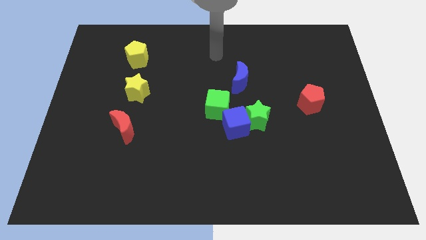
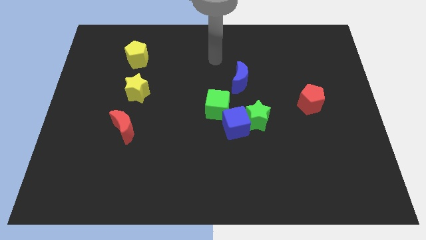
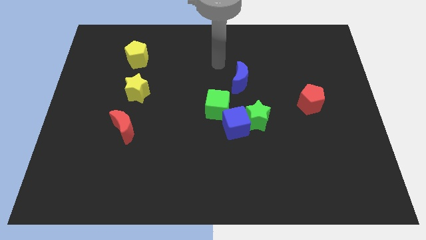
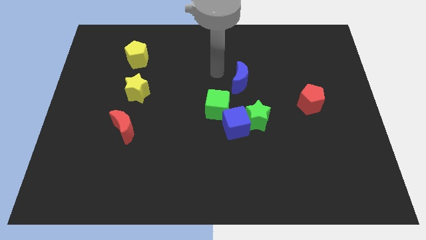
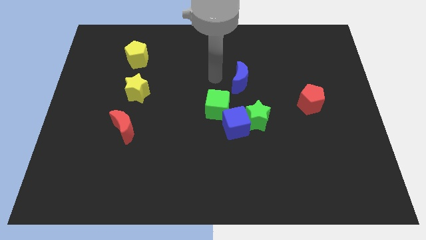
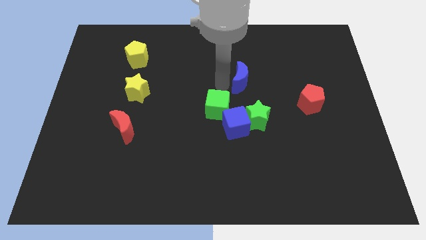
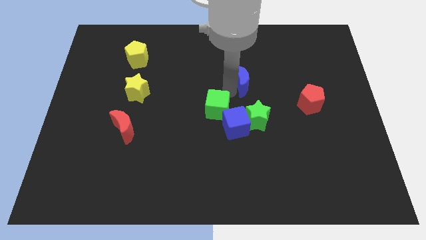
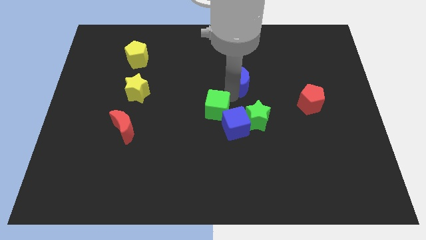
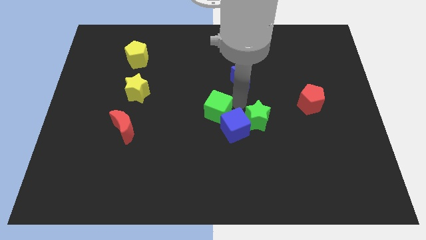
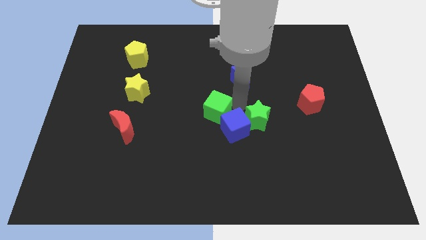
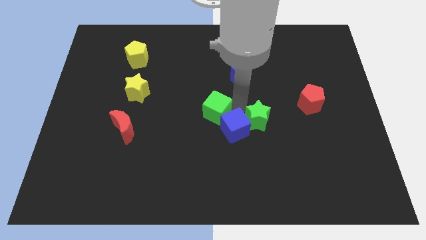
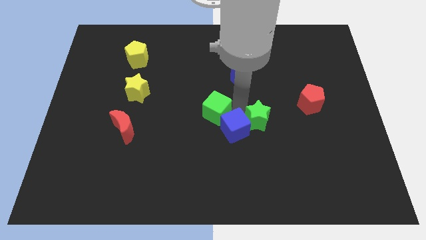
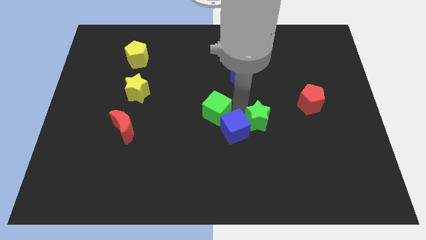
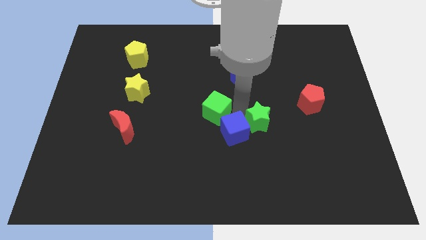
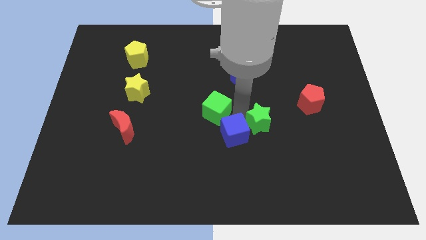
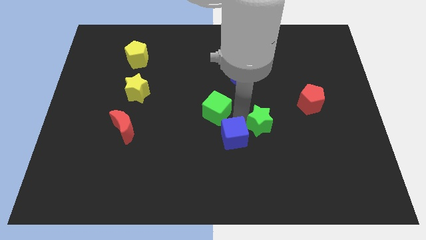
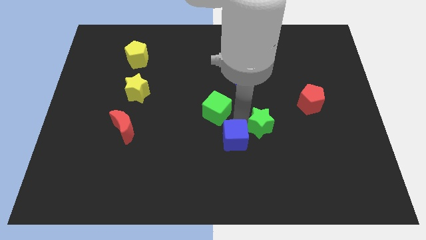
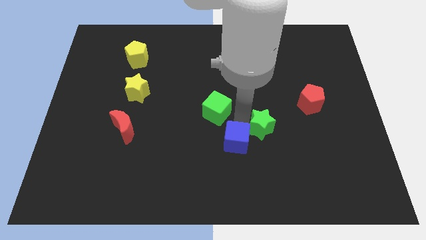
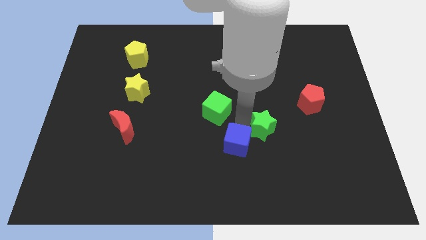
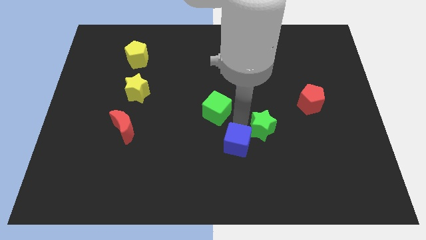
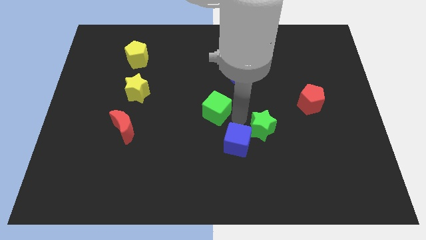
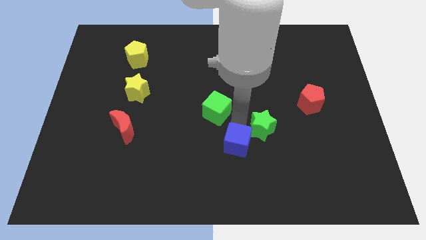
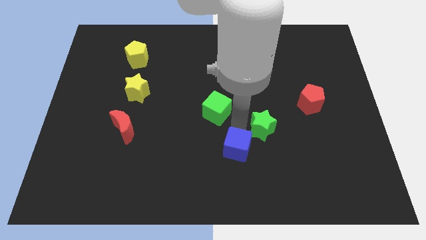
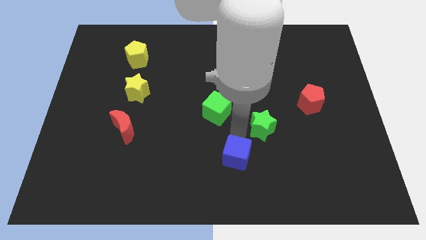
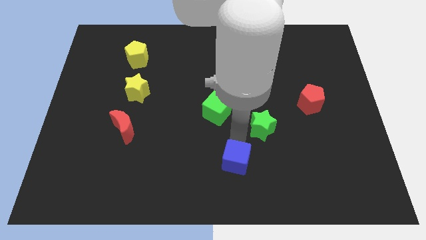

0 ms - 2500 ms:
separate the blue cube from the green star and green cube

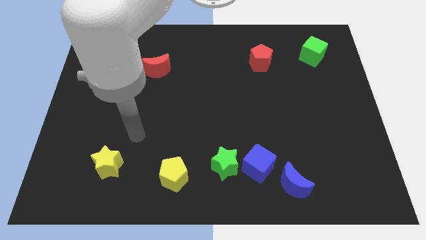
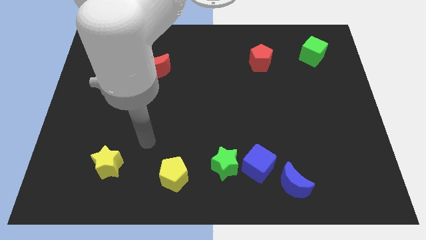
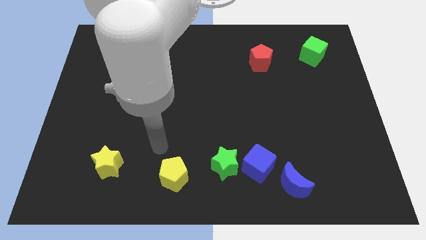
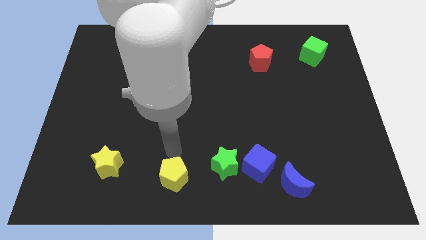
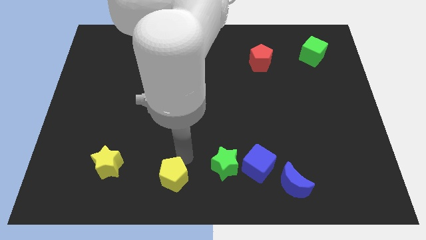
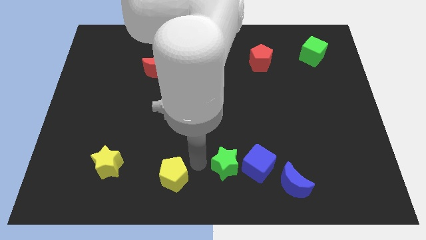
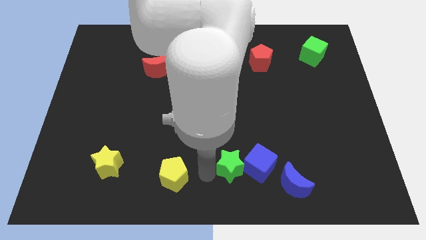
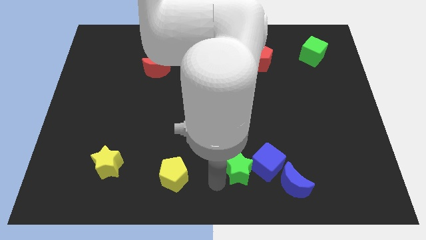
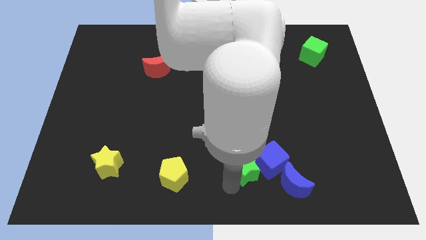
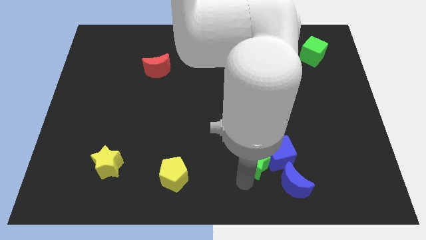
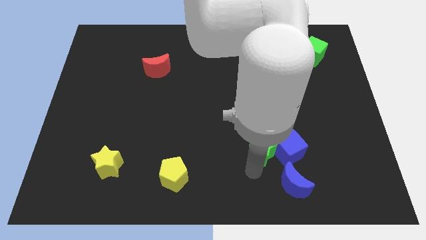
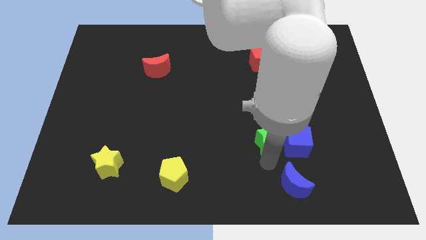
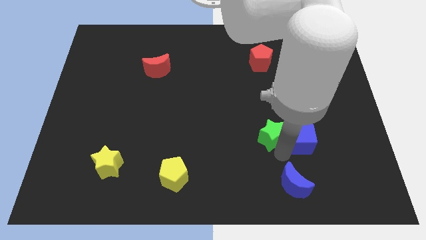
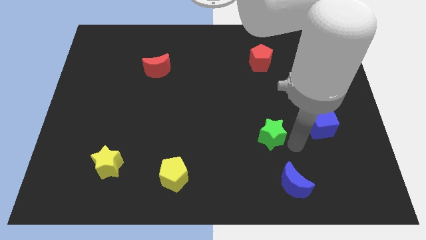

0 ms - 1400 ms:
pull the green star apart from the blue cube

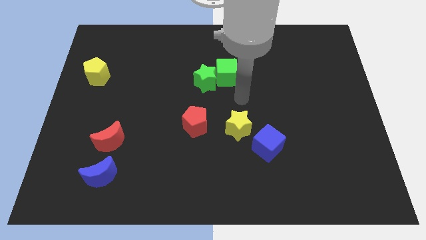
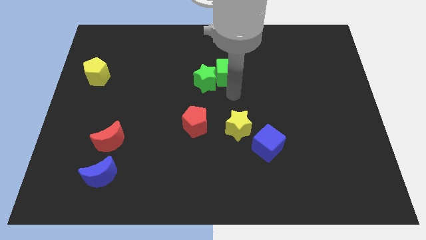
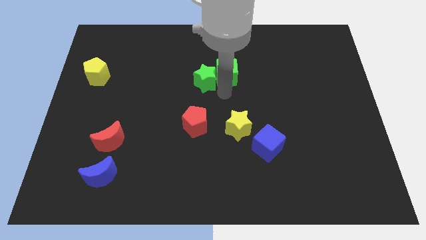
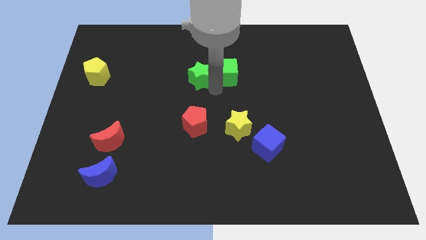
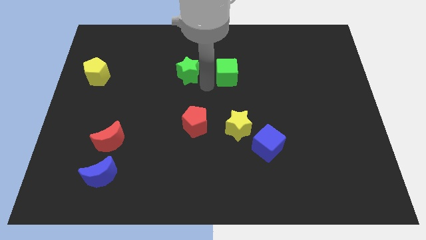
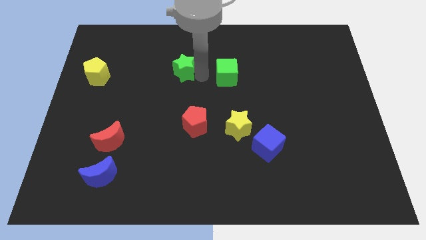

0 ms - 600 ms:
move the green cube away from the green star

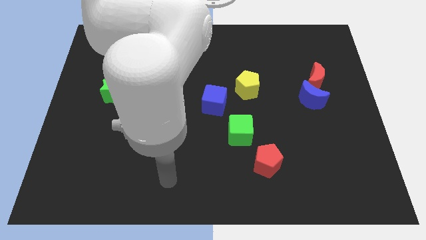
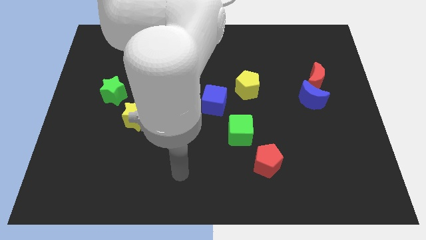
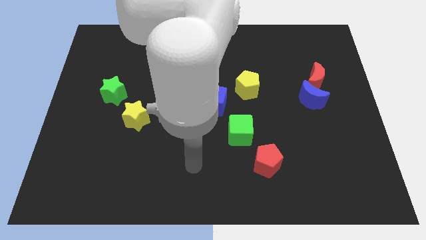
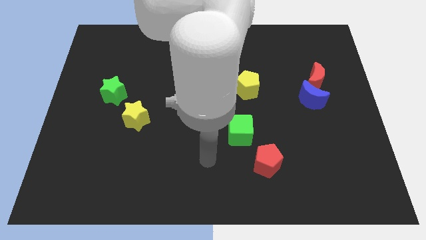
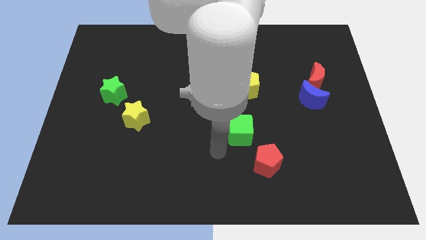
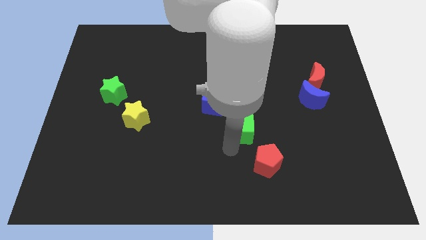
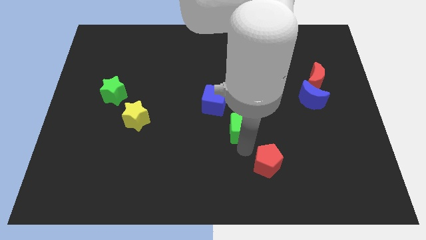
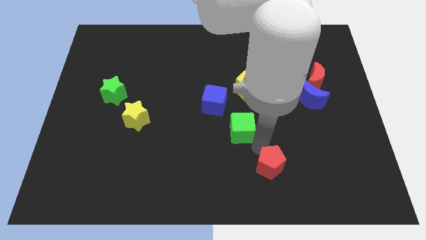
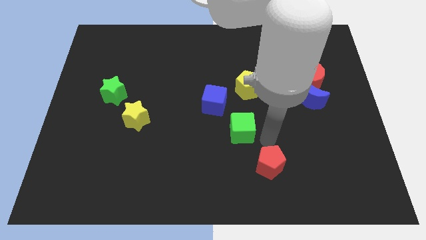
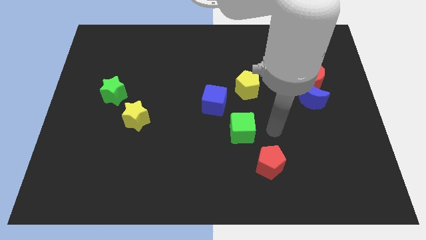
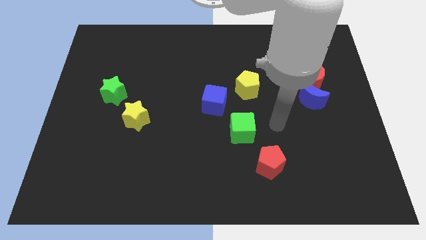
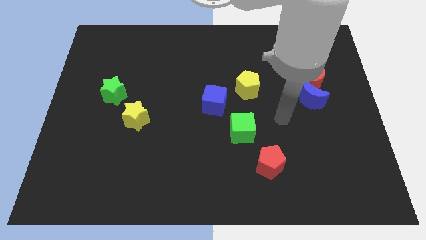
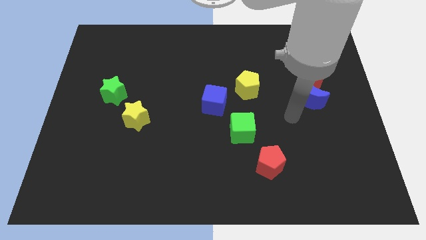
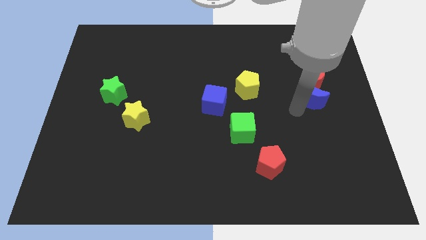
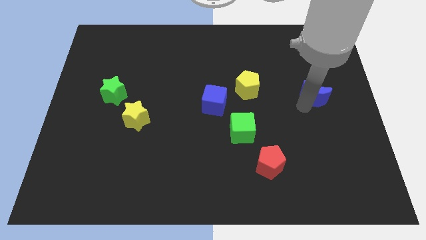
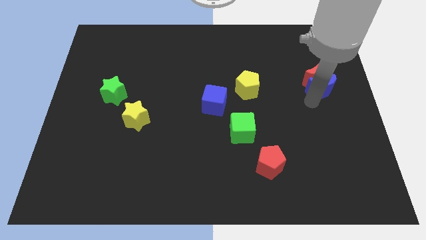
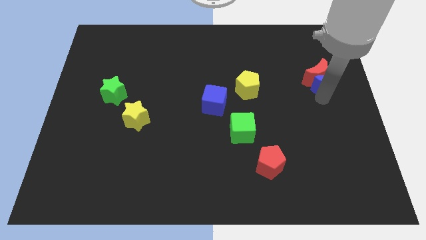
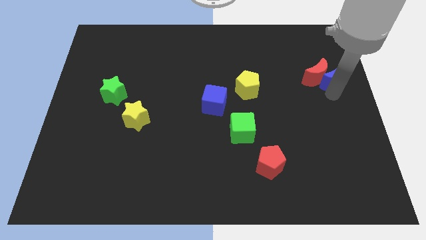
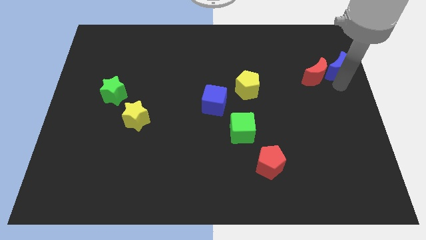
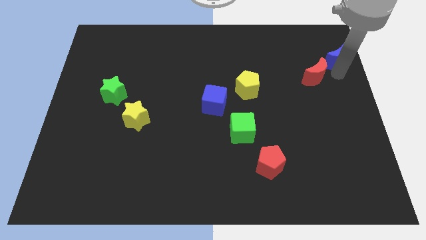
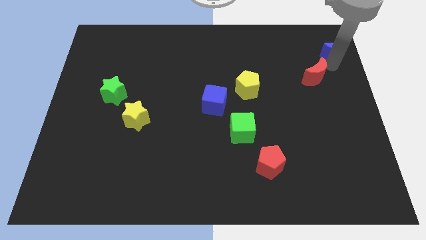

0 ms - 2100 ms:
pull the red moon apart from the blue moon

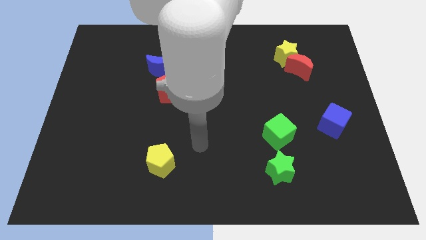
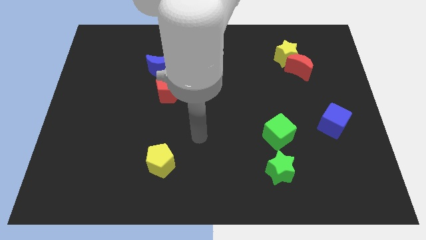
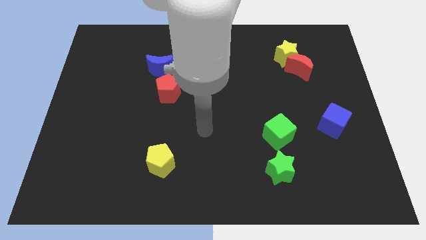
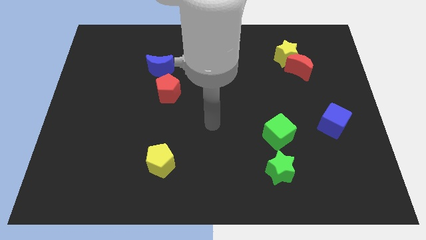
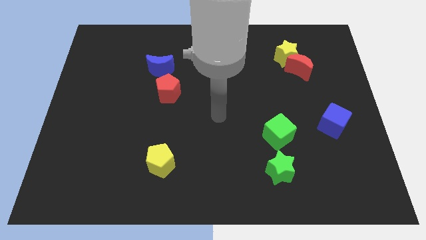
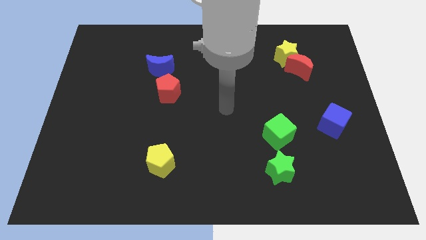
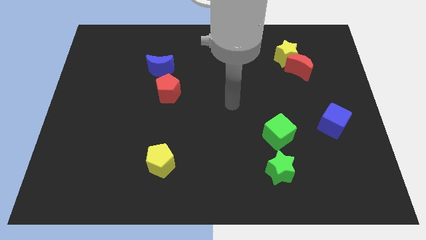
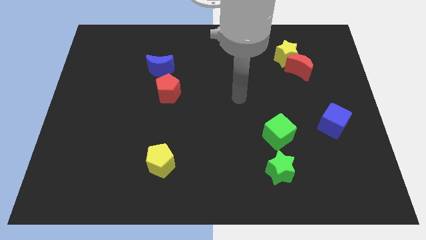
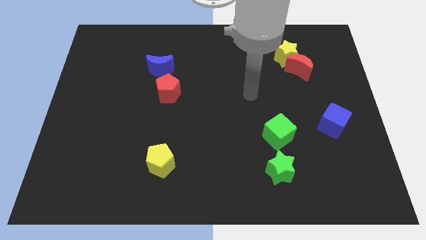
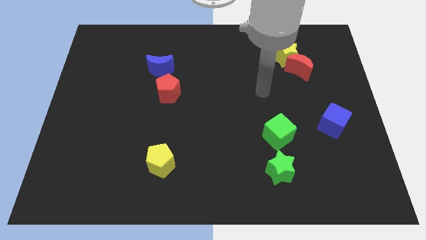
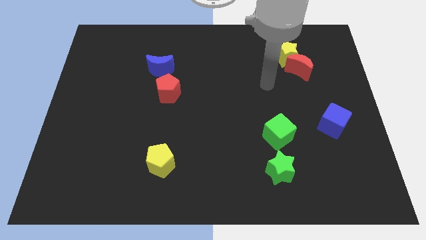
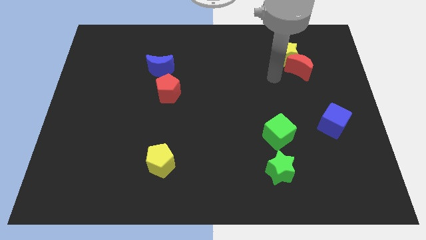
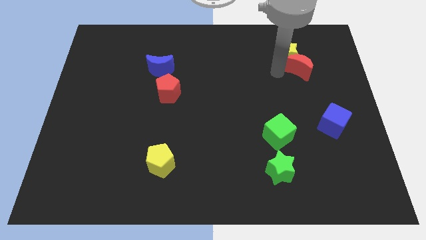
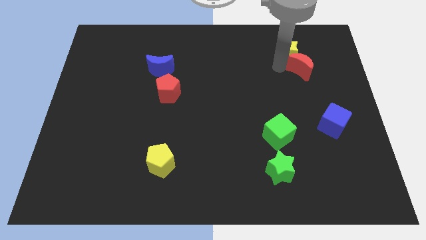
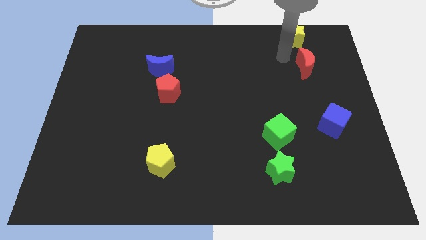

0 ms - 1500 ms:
pull the red moon apart from the yellow star

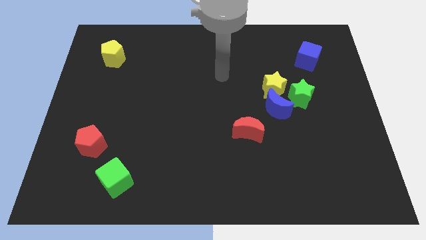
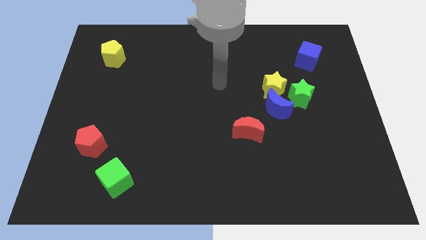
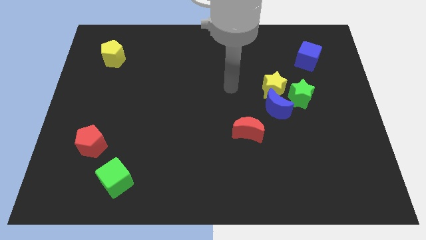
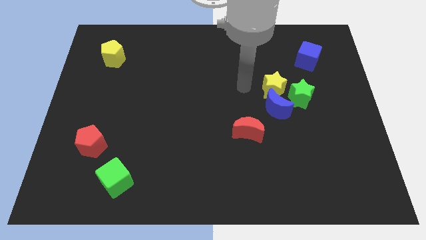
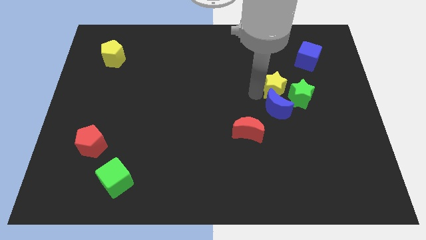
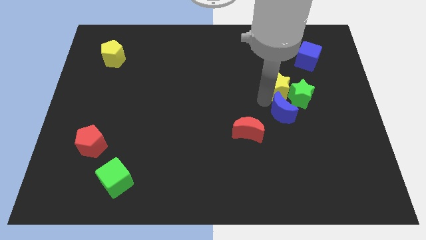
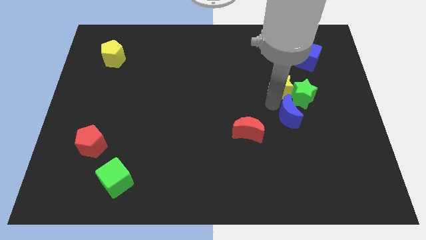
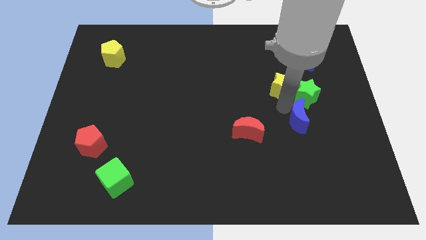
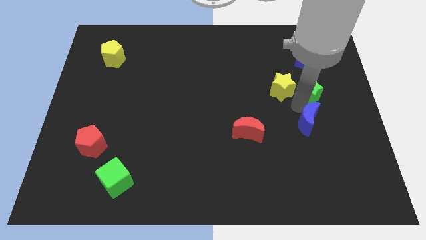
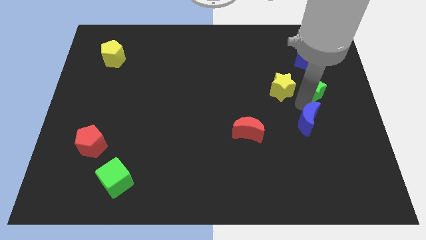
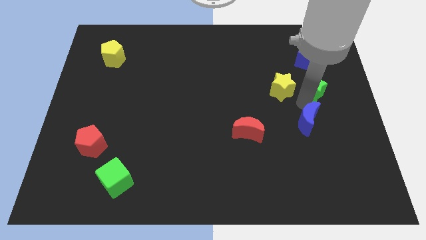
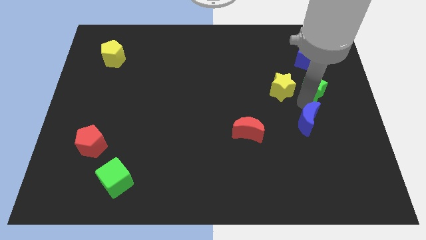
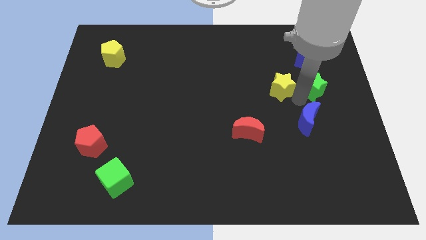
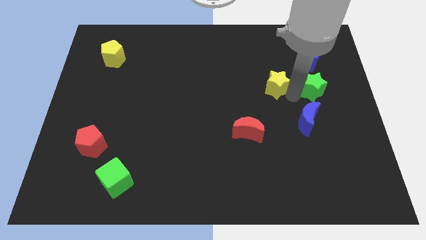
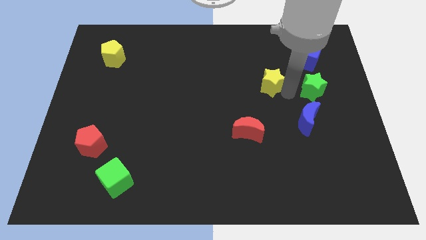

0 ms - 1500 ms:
move the yellow star away from the blue moon and green star
